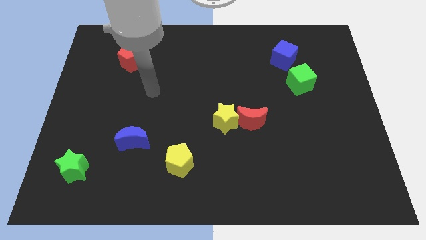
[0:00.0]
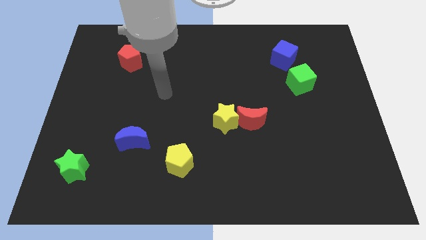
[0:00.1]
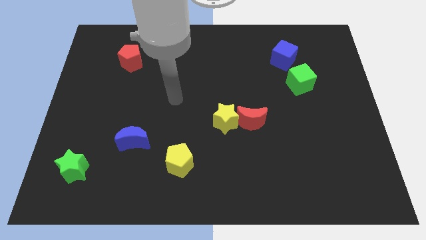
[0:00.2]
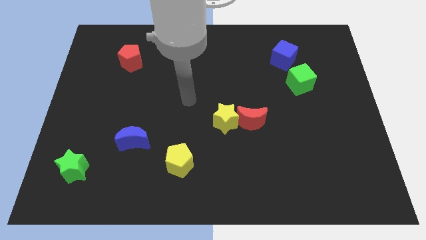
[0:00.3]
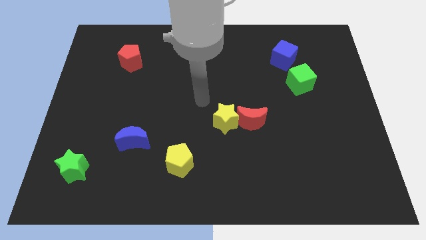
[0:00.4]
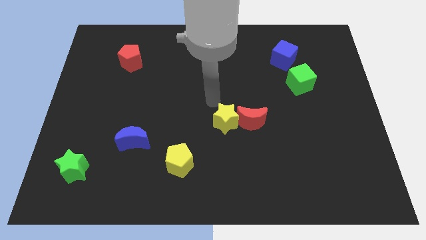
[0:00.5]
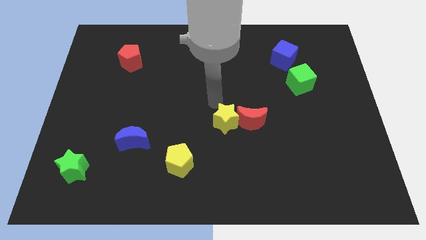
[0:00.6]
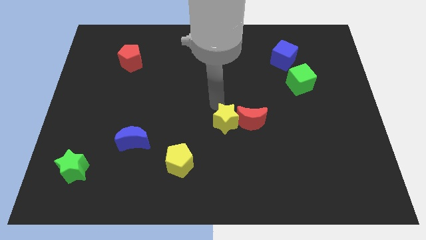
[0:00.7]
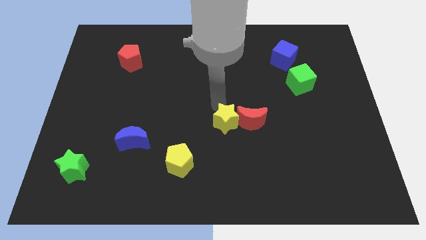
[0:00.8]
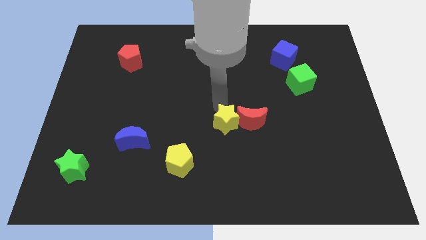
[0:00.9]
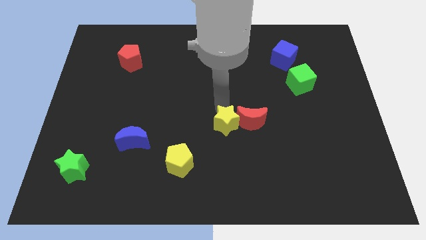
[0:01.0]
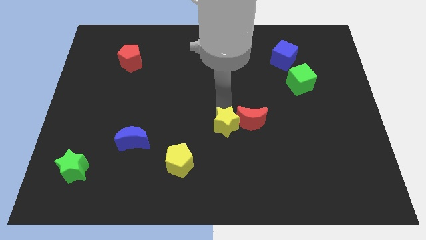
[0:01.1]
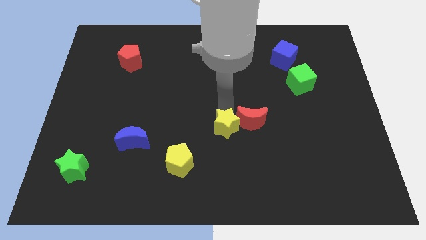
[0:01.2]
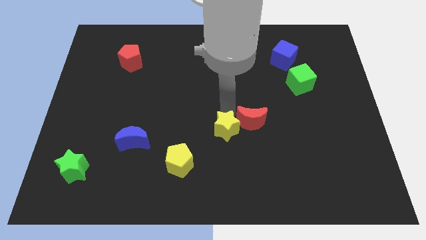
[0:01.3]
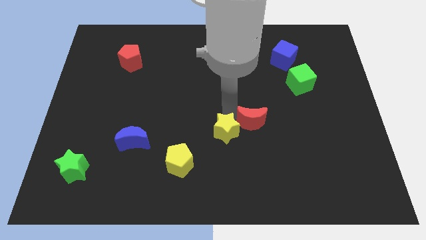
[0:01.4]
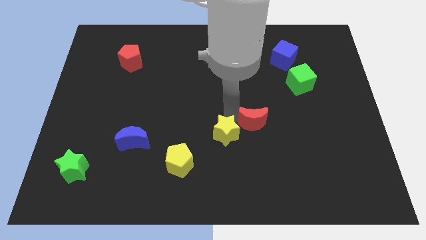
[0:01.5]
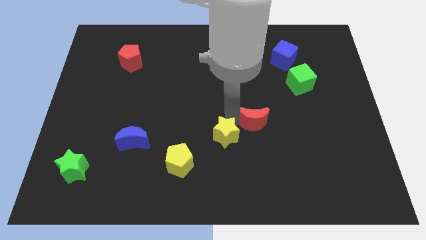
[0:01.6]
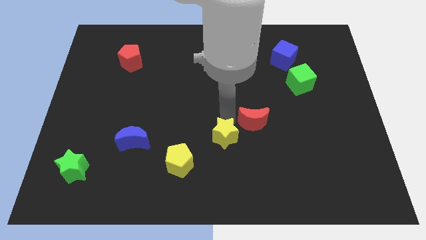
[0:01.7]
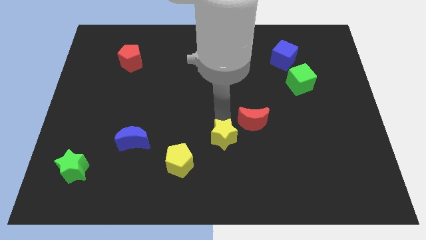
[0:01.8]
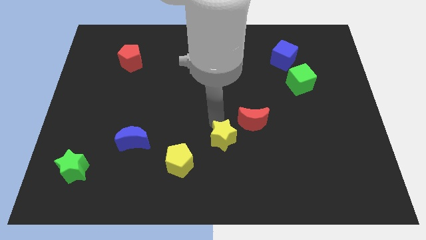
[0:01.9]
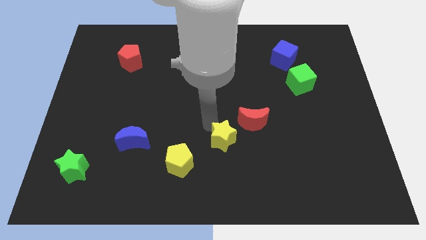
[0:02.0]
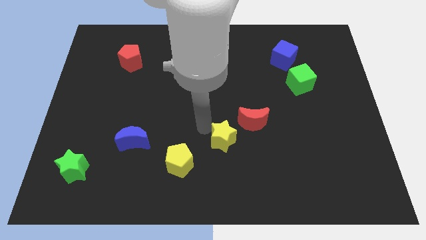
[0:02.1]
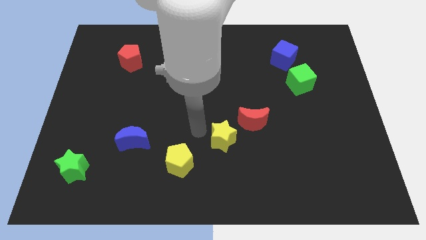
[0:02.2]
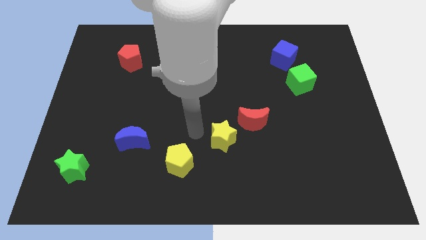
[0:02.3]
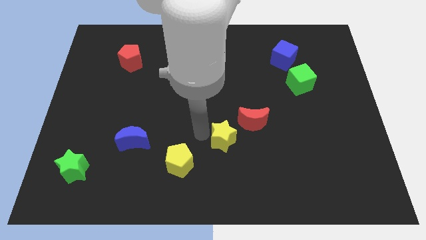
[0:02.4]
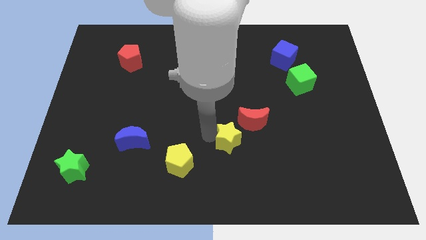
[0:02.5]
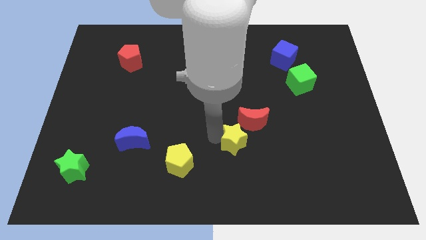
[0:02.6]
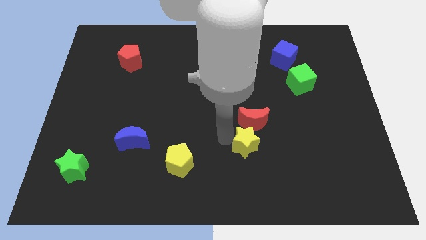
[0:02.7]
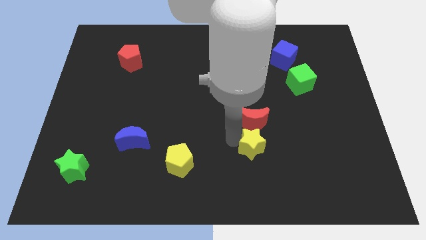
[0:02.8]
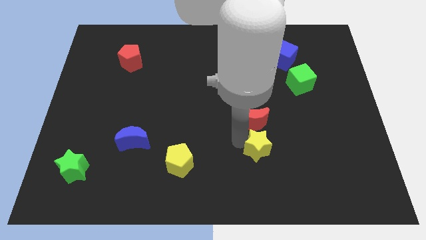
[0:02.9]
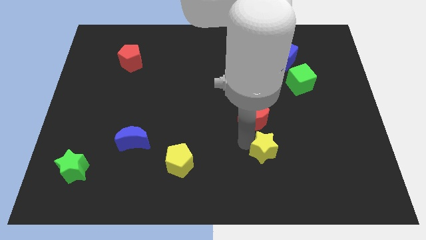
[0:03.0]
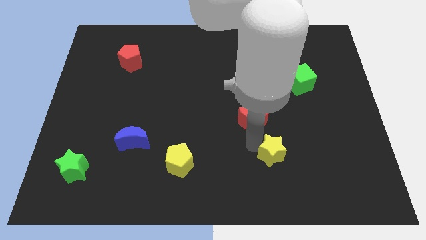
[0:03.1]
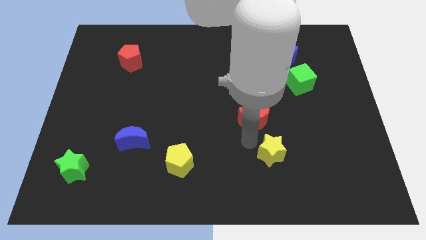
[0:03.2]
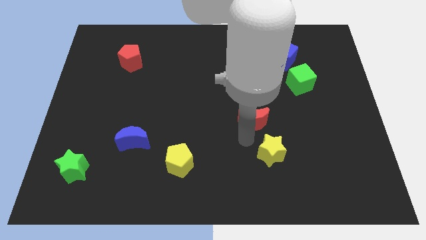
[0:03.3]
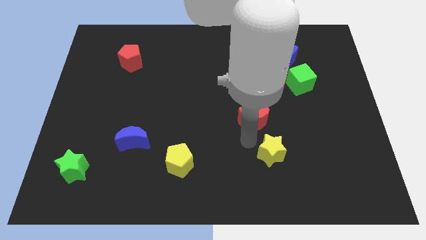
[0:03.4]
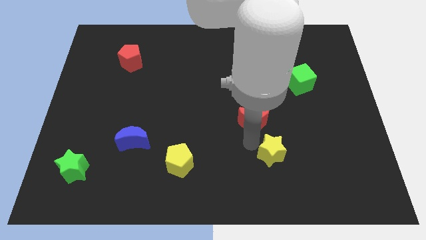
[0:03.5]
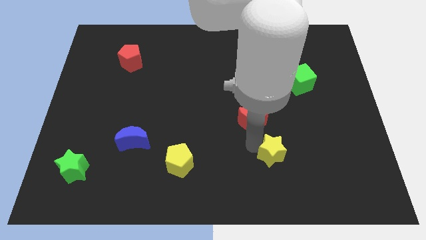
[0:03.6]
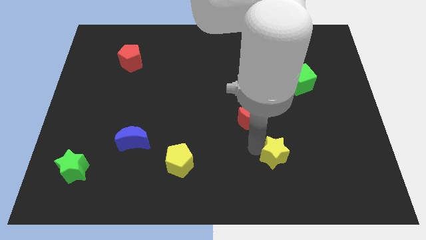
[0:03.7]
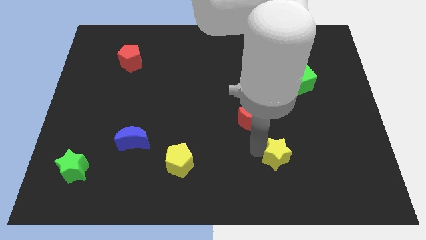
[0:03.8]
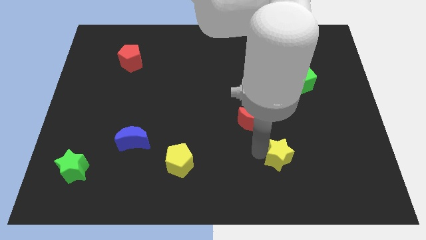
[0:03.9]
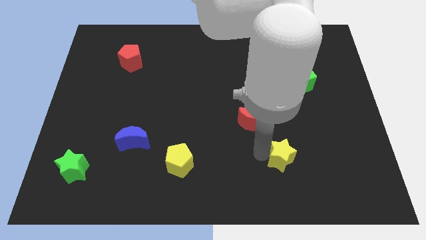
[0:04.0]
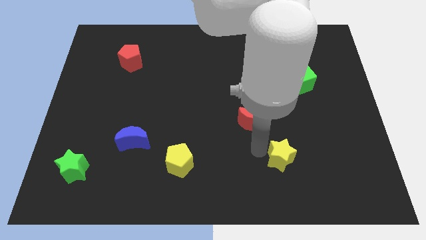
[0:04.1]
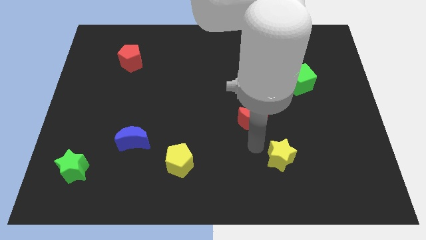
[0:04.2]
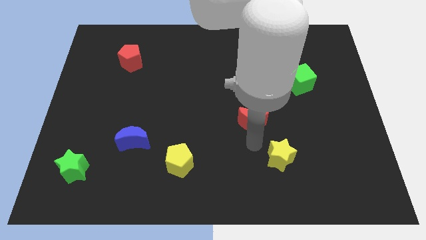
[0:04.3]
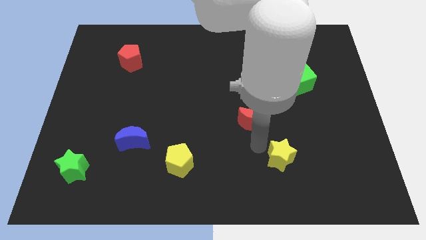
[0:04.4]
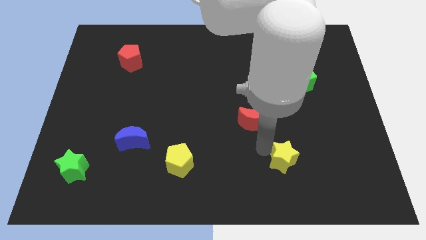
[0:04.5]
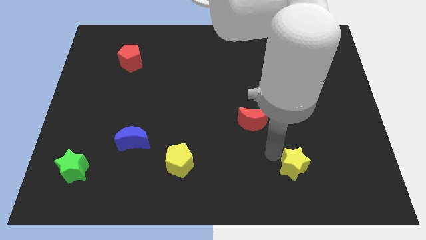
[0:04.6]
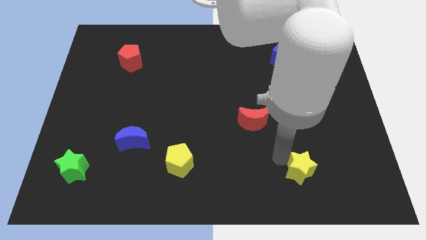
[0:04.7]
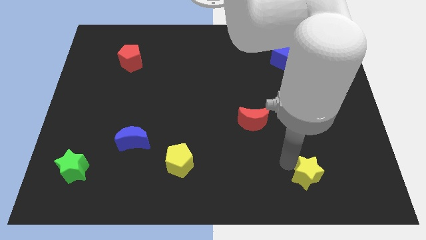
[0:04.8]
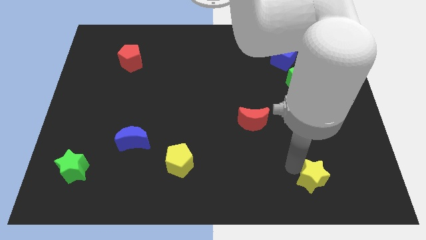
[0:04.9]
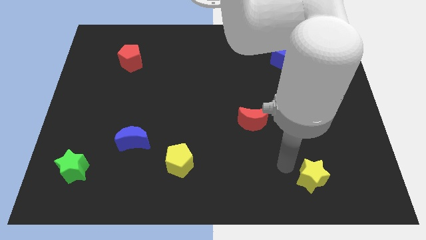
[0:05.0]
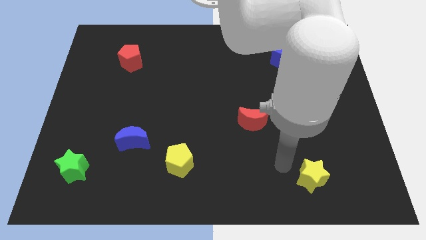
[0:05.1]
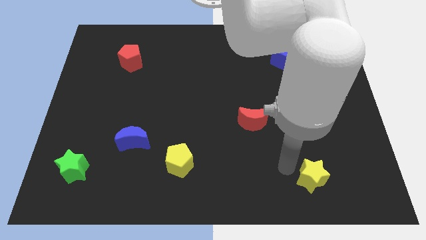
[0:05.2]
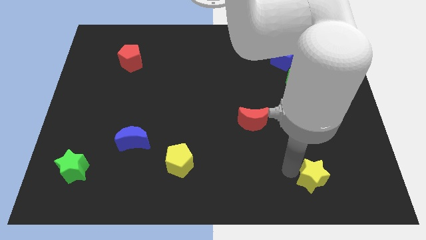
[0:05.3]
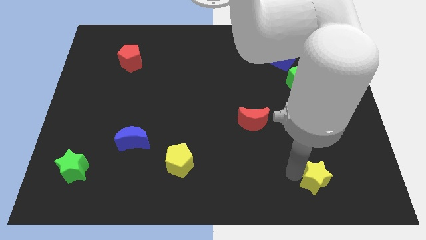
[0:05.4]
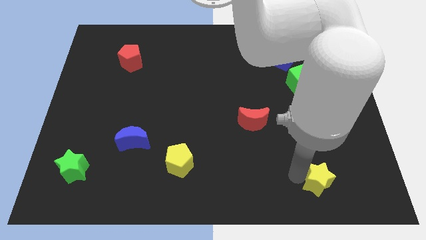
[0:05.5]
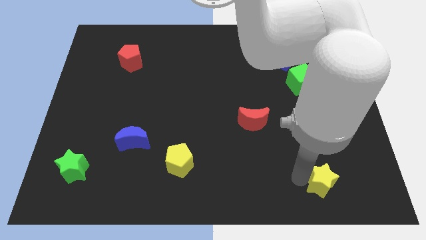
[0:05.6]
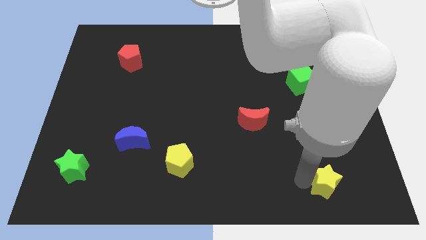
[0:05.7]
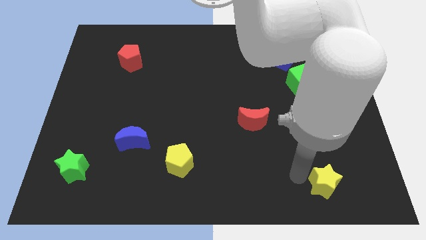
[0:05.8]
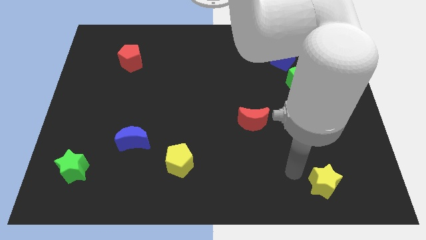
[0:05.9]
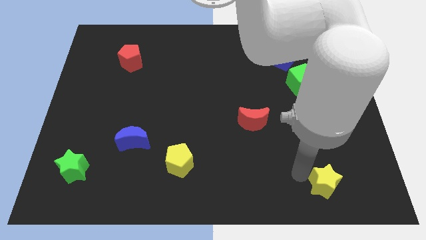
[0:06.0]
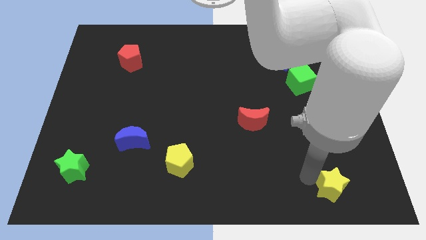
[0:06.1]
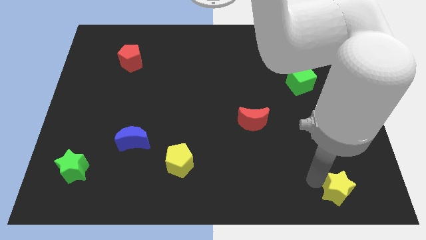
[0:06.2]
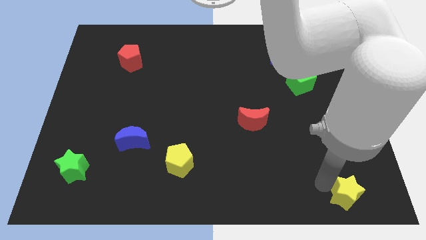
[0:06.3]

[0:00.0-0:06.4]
put the yellow star to the lower right corner
